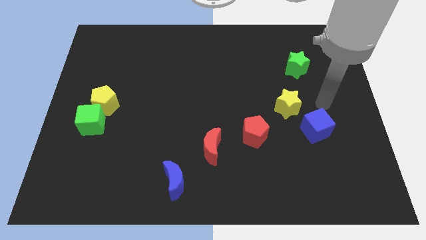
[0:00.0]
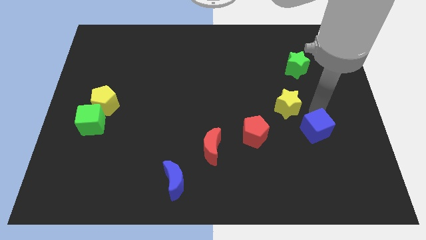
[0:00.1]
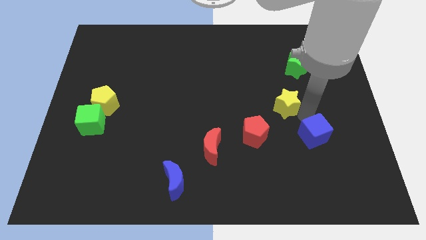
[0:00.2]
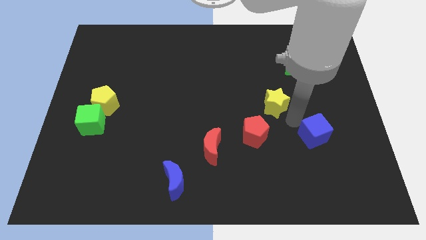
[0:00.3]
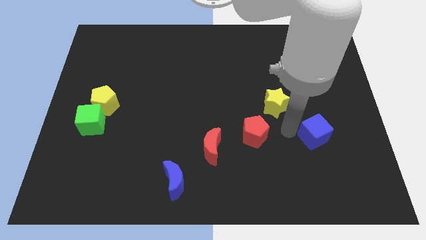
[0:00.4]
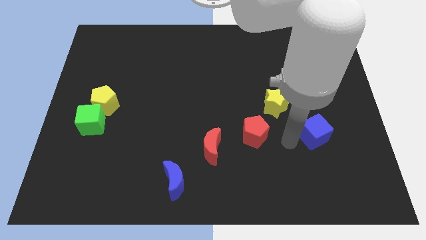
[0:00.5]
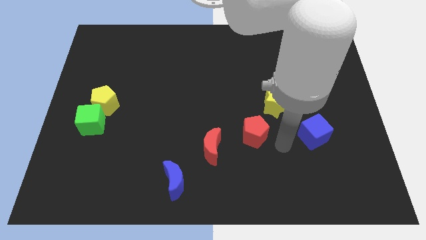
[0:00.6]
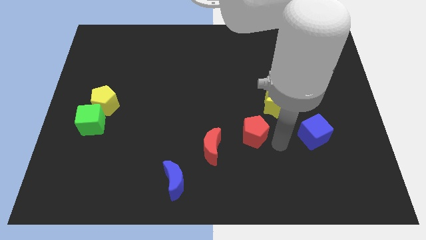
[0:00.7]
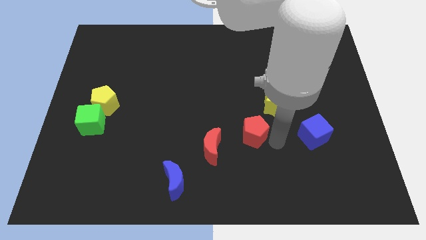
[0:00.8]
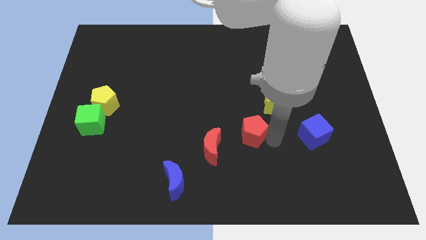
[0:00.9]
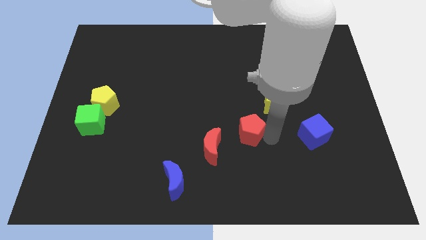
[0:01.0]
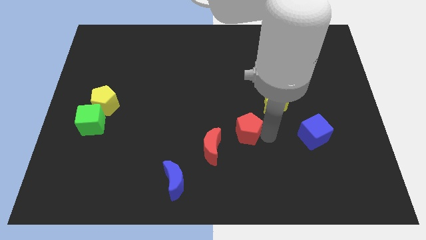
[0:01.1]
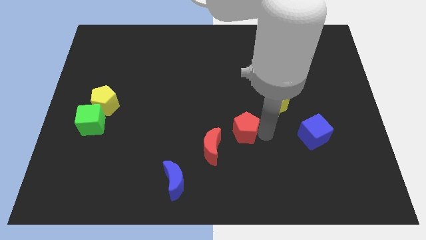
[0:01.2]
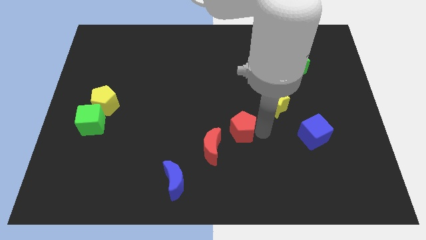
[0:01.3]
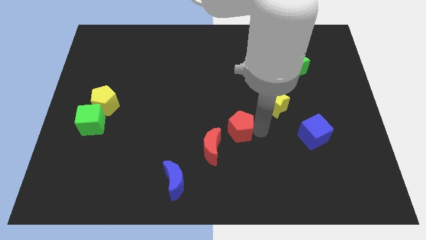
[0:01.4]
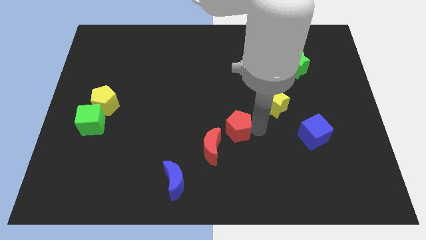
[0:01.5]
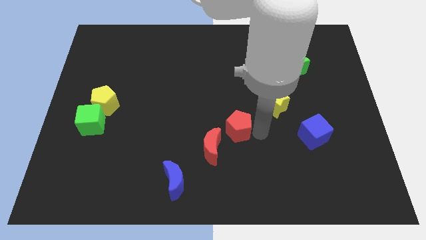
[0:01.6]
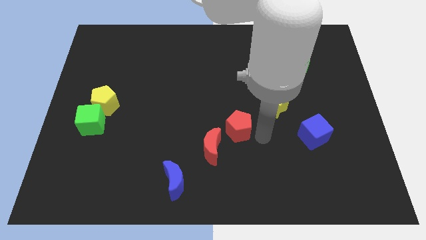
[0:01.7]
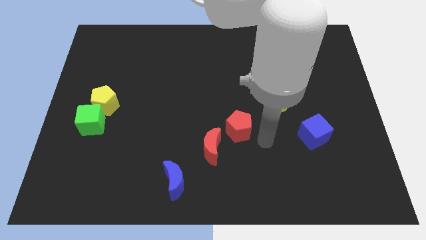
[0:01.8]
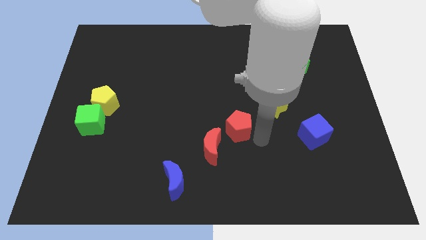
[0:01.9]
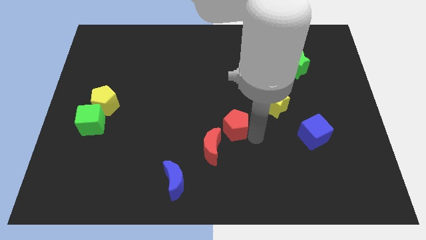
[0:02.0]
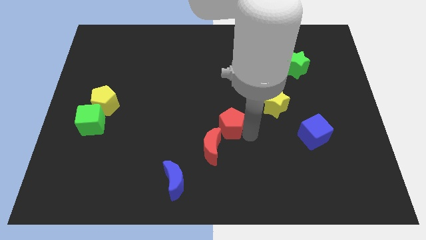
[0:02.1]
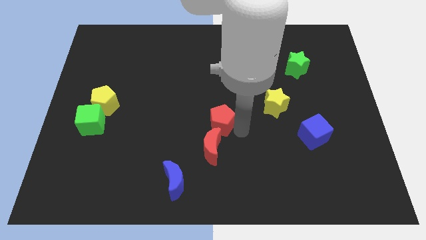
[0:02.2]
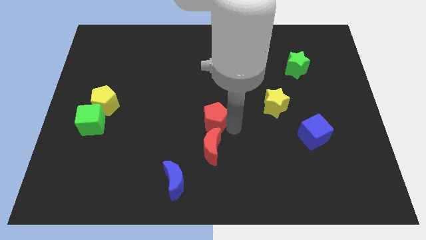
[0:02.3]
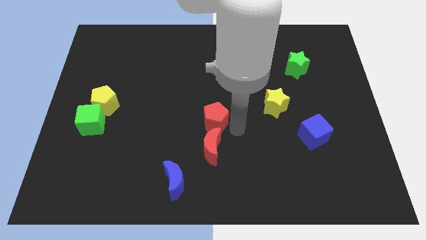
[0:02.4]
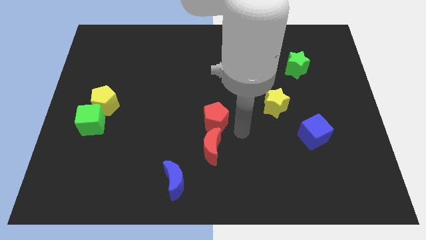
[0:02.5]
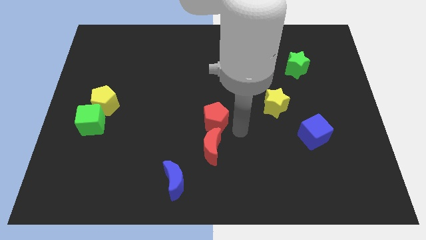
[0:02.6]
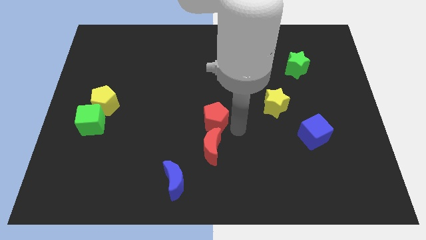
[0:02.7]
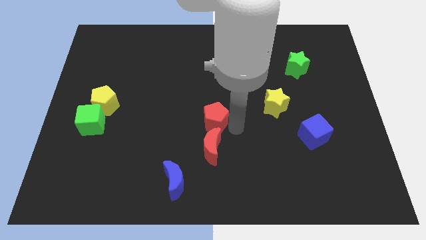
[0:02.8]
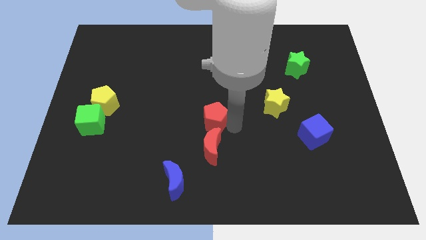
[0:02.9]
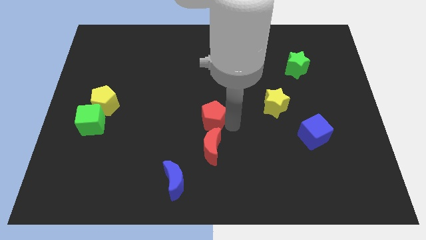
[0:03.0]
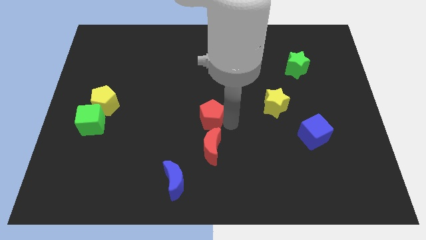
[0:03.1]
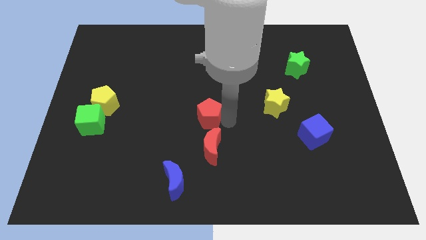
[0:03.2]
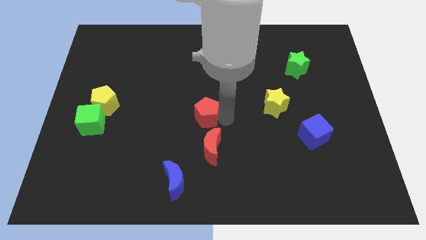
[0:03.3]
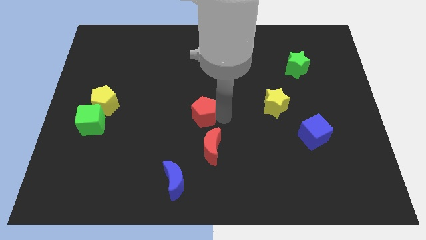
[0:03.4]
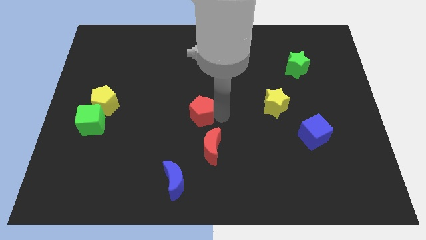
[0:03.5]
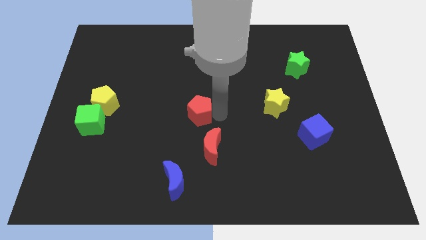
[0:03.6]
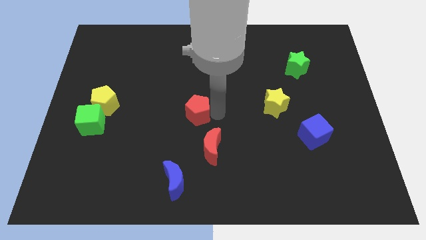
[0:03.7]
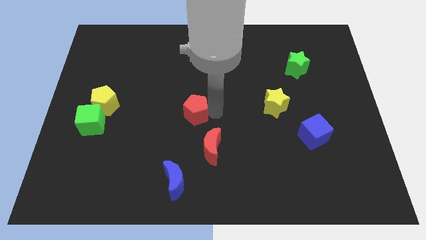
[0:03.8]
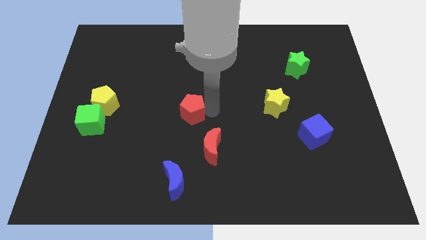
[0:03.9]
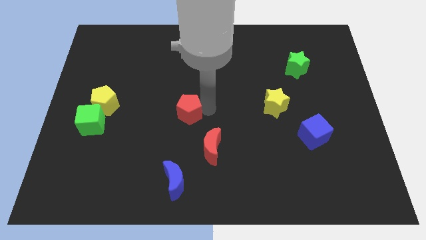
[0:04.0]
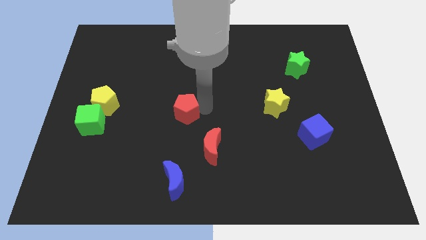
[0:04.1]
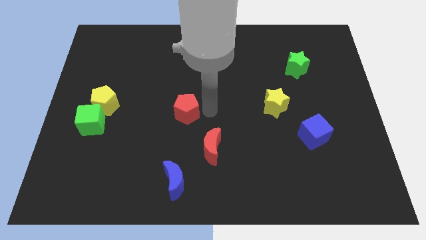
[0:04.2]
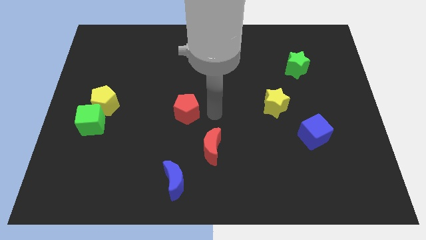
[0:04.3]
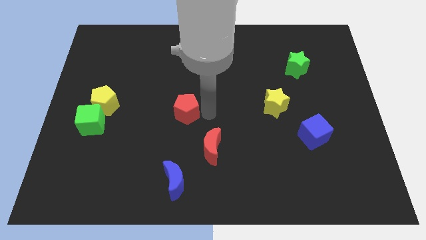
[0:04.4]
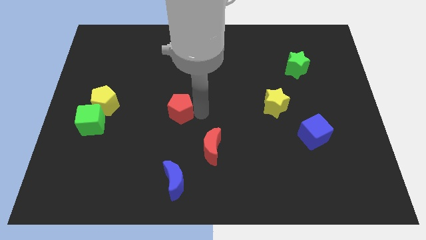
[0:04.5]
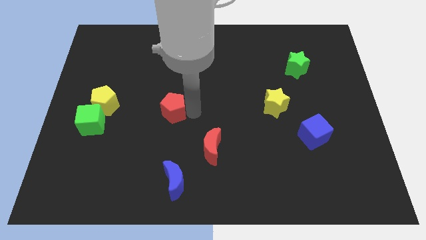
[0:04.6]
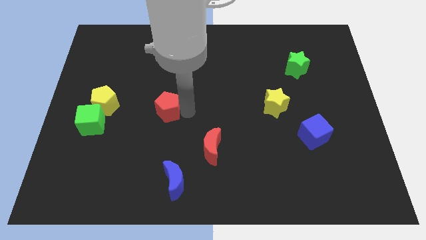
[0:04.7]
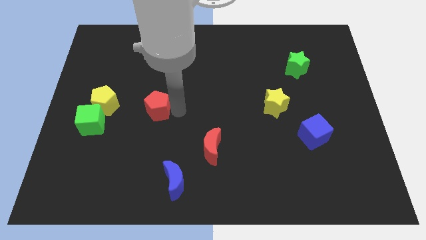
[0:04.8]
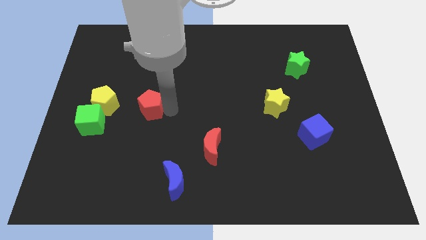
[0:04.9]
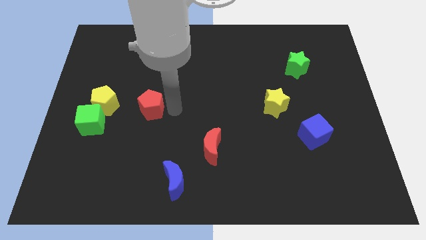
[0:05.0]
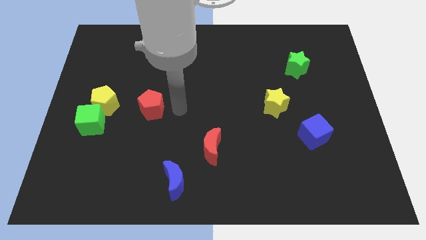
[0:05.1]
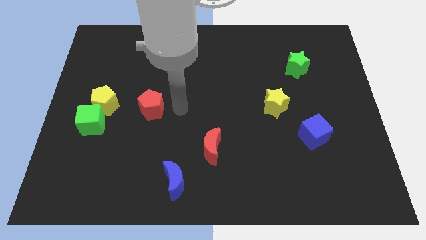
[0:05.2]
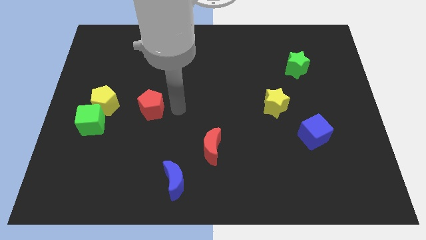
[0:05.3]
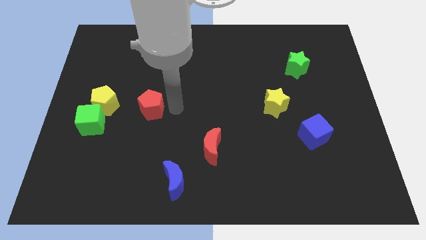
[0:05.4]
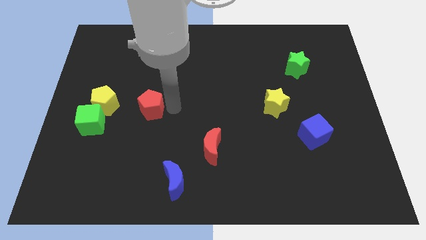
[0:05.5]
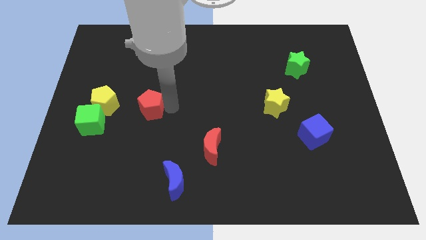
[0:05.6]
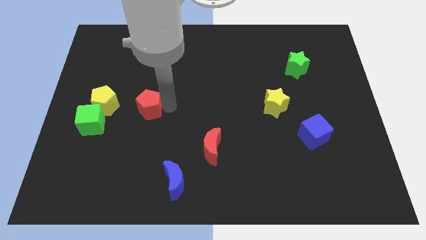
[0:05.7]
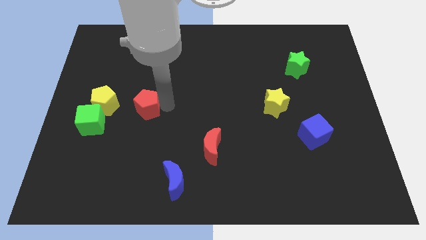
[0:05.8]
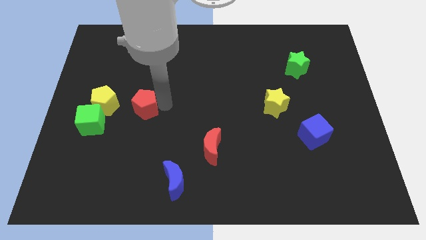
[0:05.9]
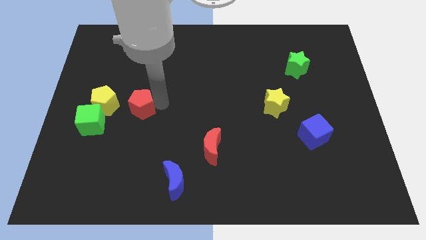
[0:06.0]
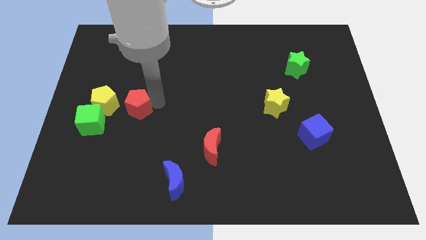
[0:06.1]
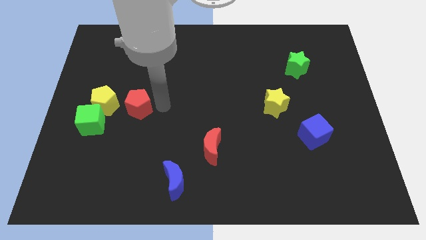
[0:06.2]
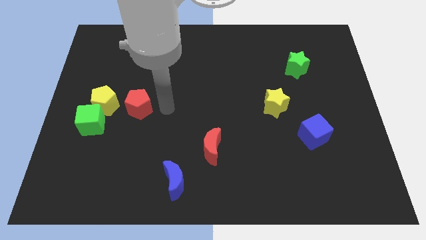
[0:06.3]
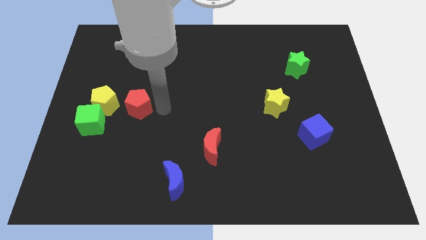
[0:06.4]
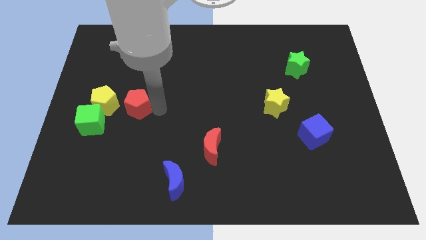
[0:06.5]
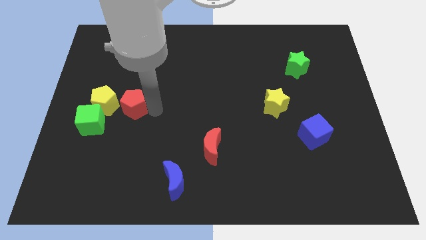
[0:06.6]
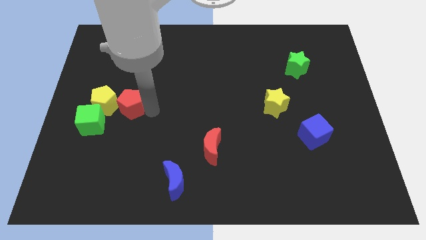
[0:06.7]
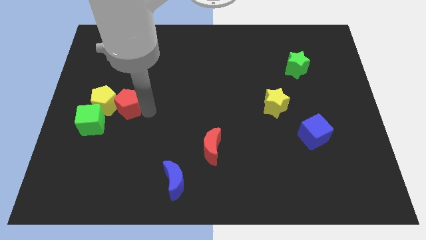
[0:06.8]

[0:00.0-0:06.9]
slide the red pentagon to the yellow pentagon
